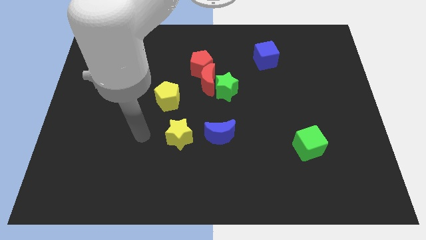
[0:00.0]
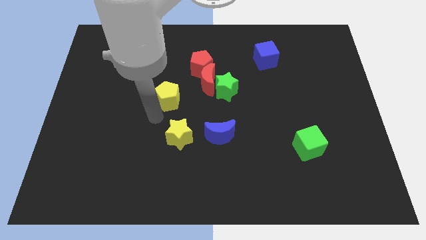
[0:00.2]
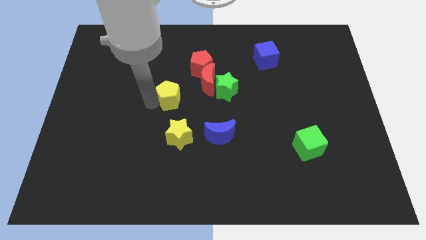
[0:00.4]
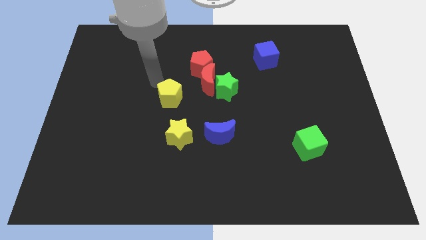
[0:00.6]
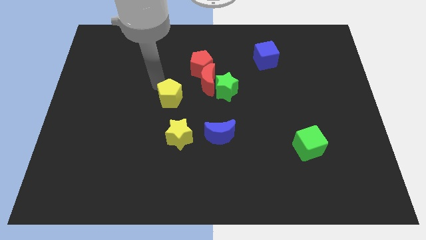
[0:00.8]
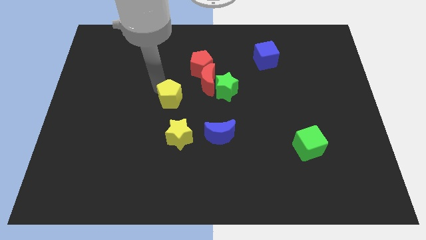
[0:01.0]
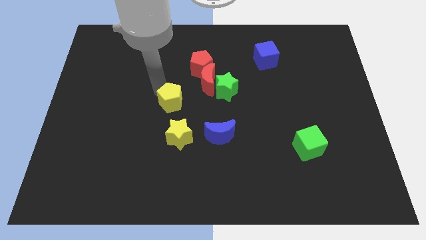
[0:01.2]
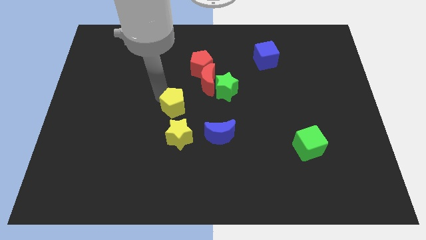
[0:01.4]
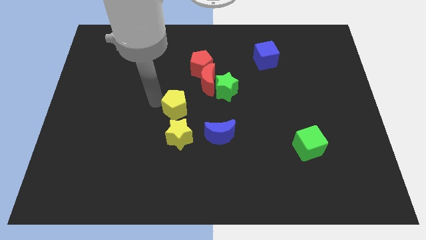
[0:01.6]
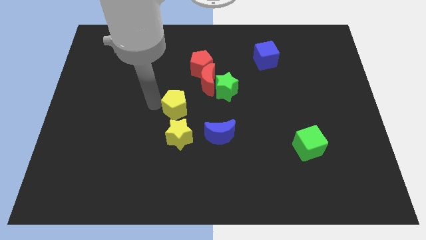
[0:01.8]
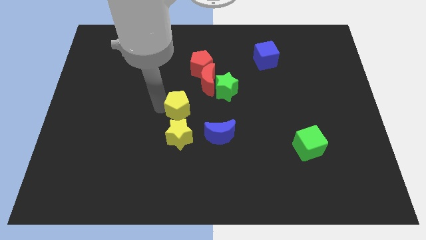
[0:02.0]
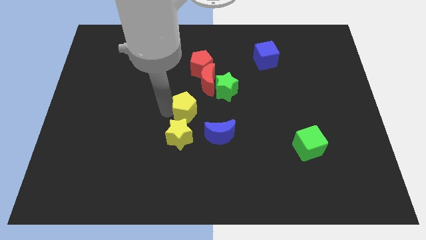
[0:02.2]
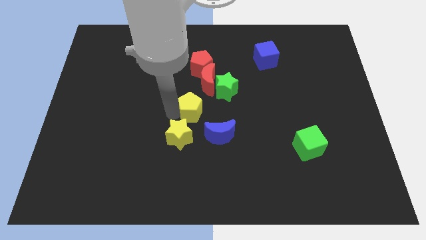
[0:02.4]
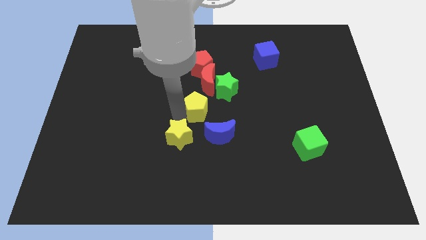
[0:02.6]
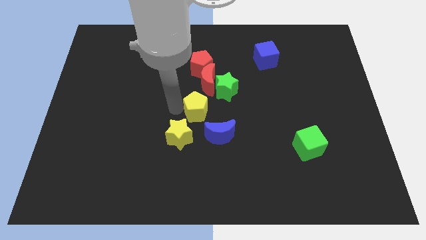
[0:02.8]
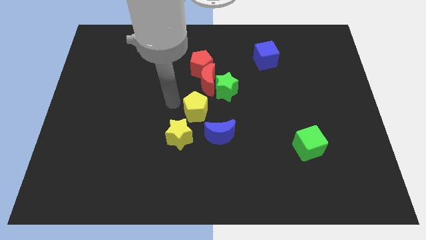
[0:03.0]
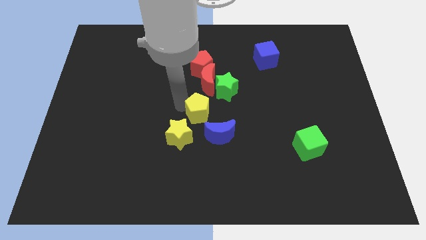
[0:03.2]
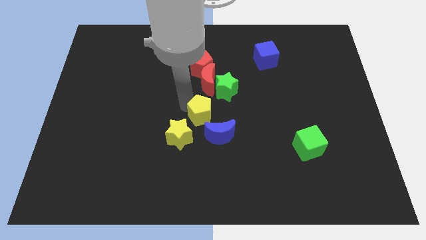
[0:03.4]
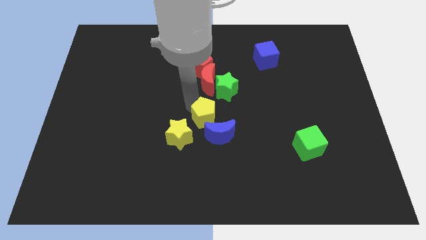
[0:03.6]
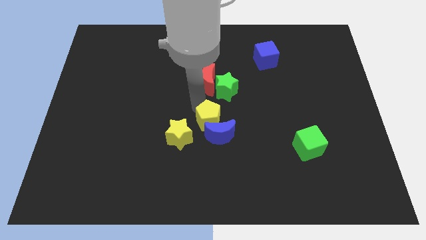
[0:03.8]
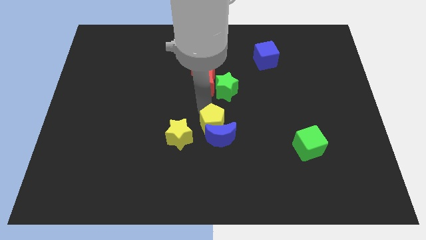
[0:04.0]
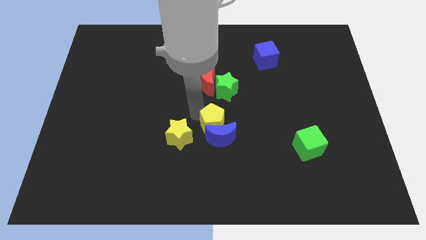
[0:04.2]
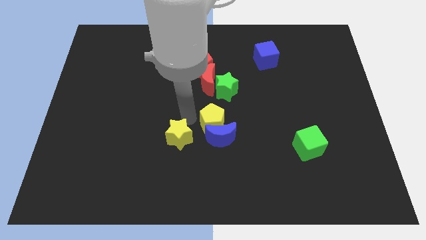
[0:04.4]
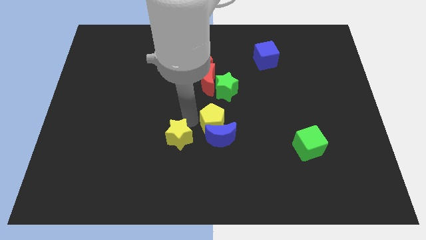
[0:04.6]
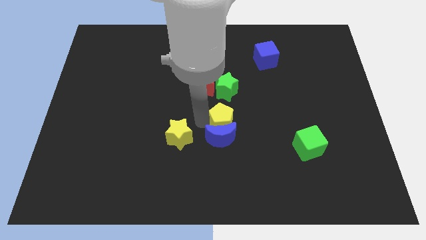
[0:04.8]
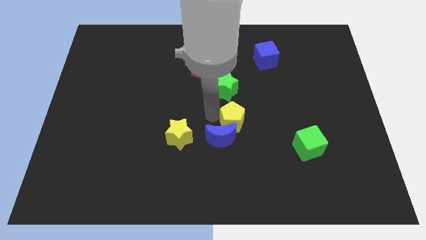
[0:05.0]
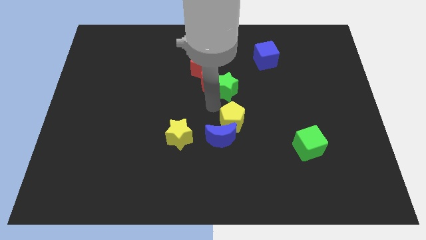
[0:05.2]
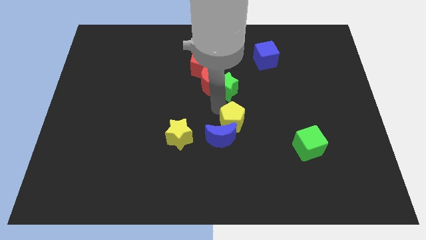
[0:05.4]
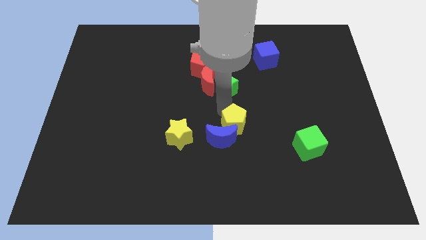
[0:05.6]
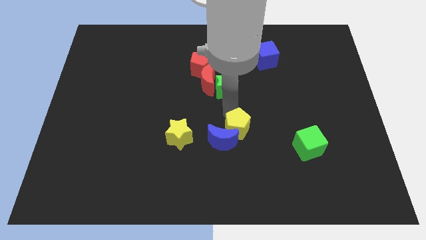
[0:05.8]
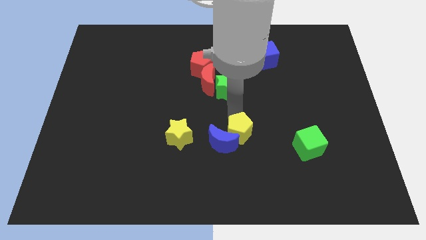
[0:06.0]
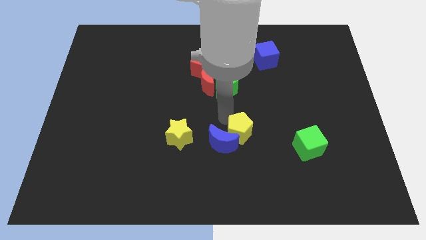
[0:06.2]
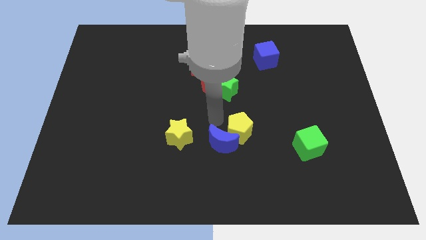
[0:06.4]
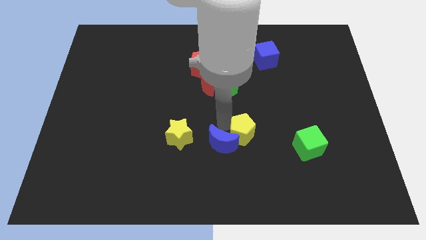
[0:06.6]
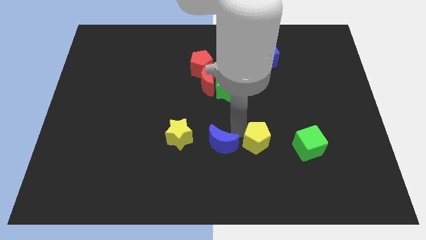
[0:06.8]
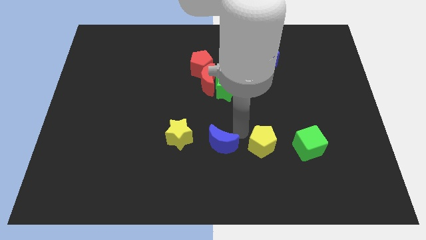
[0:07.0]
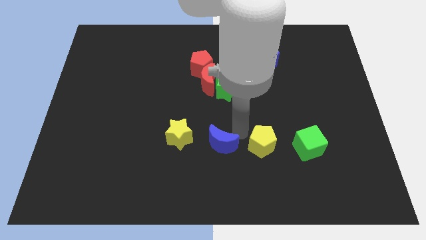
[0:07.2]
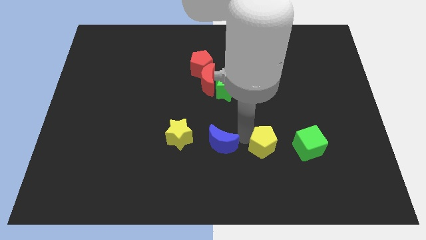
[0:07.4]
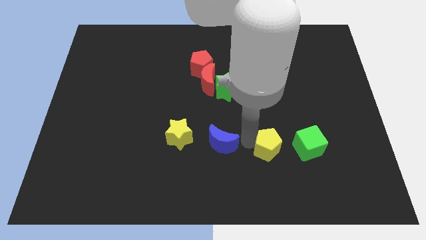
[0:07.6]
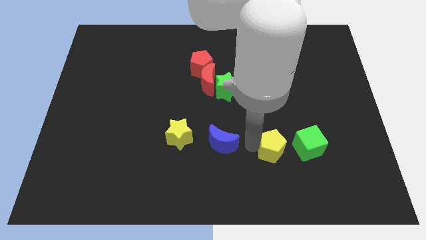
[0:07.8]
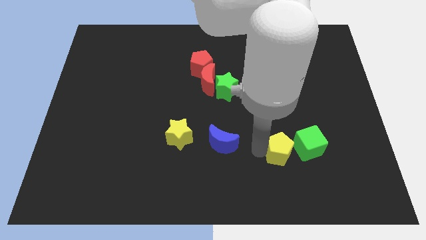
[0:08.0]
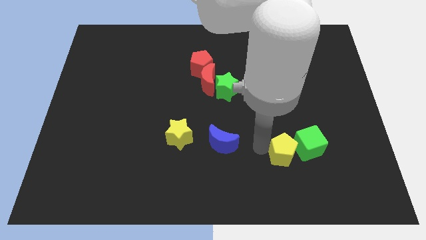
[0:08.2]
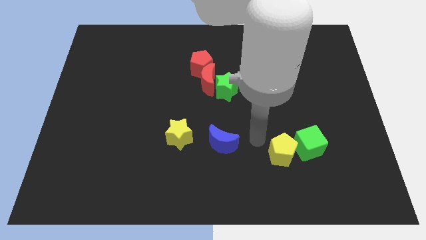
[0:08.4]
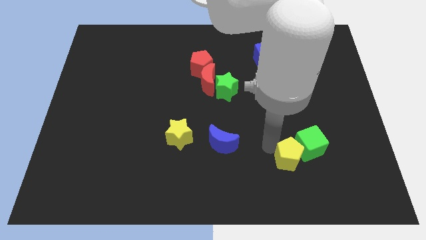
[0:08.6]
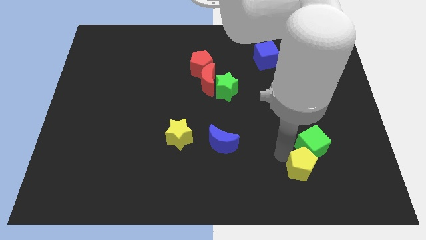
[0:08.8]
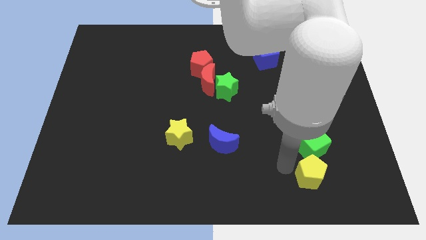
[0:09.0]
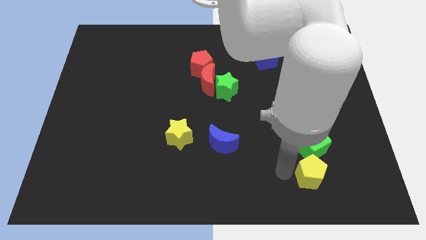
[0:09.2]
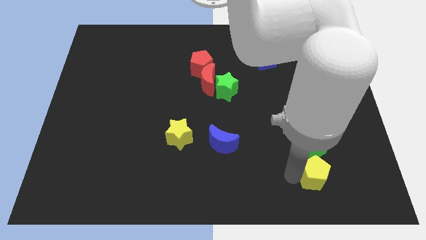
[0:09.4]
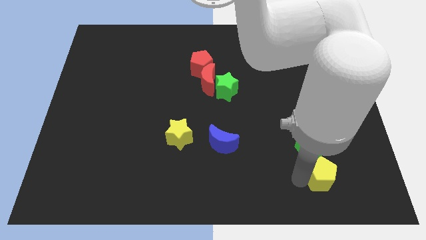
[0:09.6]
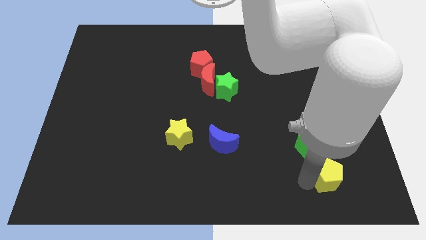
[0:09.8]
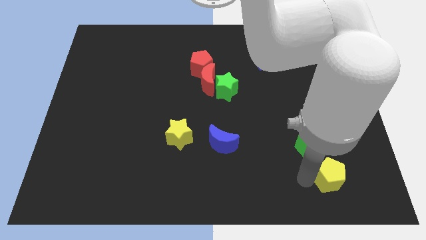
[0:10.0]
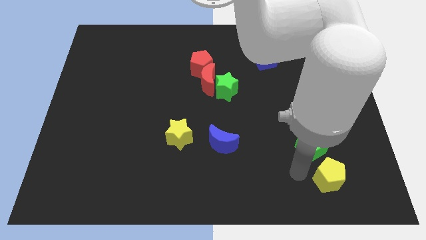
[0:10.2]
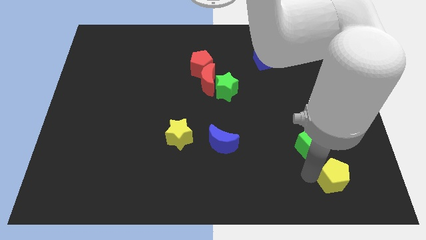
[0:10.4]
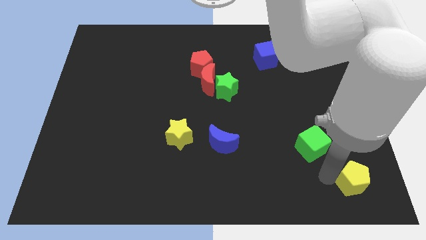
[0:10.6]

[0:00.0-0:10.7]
slide the yellow pentagon to the bottom right of the board
